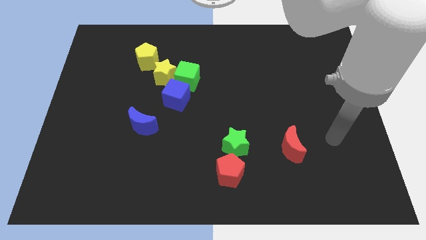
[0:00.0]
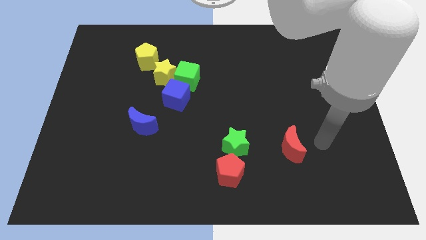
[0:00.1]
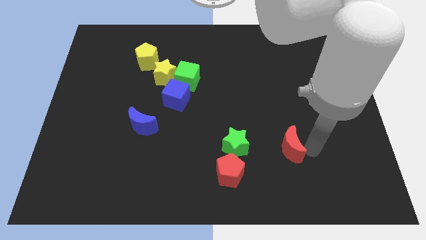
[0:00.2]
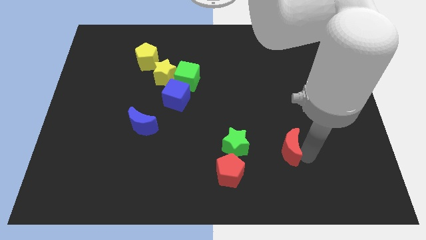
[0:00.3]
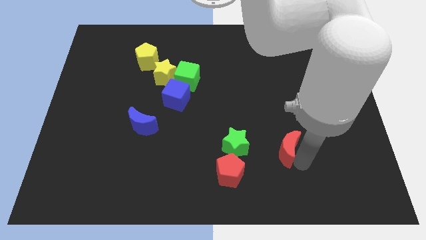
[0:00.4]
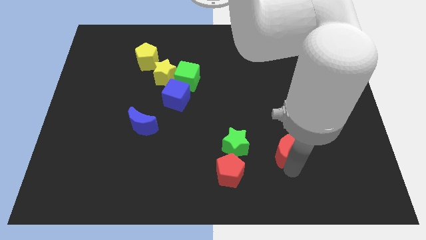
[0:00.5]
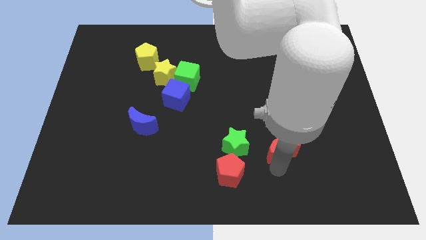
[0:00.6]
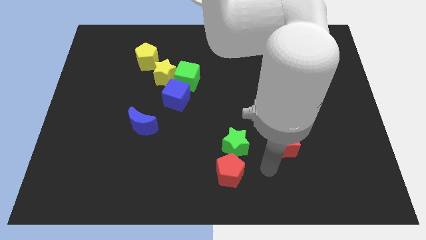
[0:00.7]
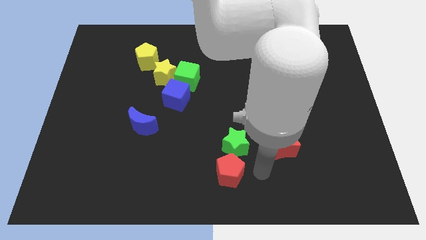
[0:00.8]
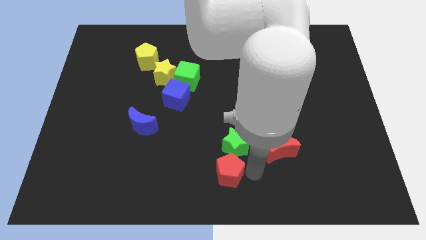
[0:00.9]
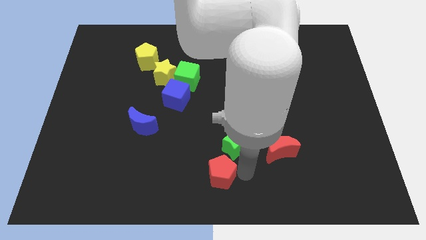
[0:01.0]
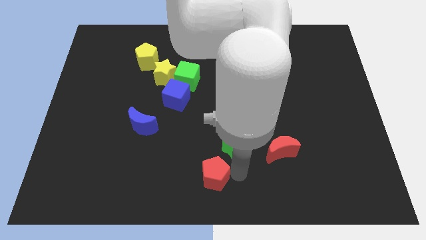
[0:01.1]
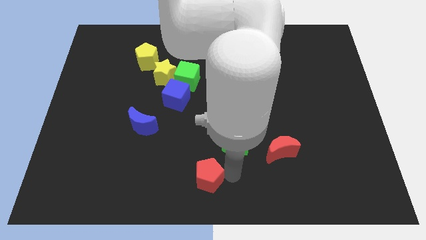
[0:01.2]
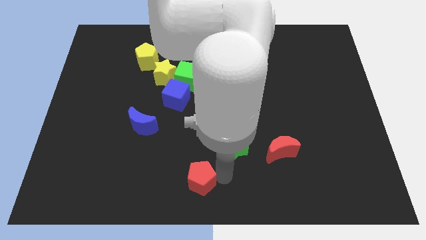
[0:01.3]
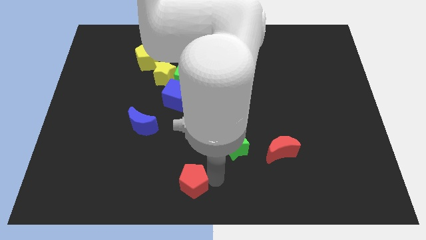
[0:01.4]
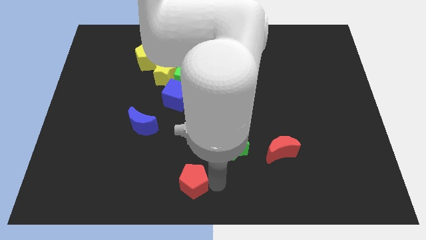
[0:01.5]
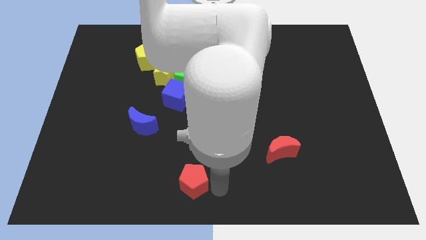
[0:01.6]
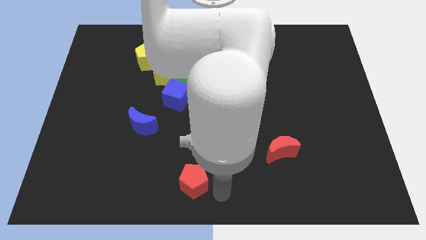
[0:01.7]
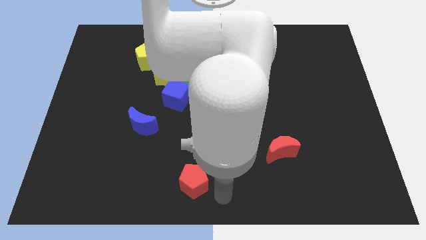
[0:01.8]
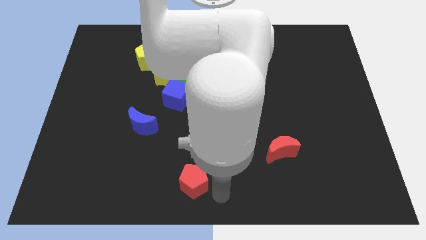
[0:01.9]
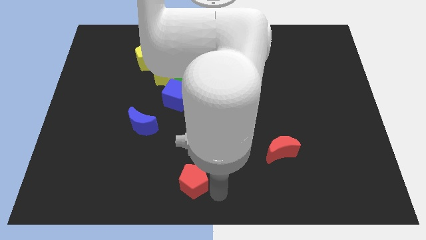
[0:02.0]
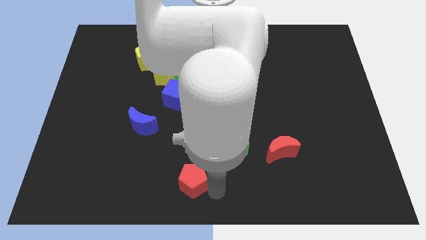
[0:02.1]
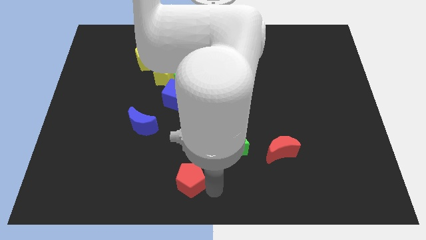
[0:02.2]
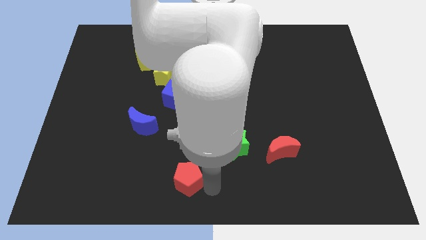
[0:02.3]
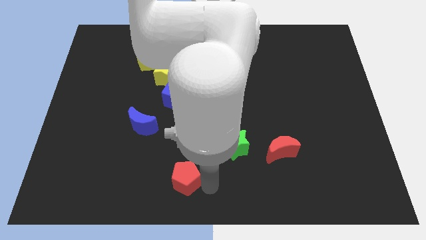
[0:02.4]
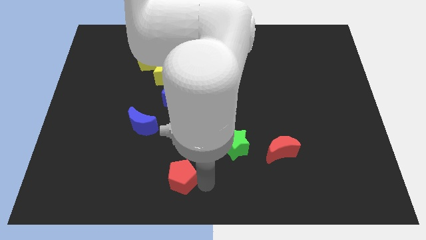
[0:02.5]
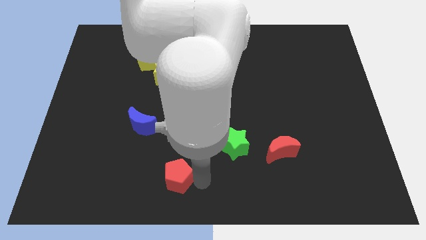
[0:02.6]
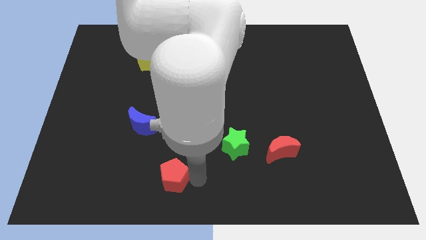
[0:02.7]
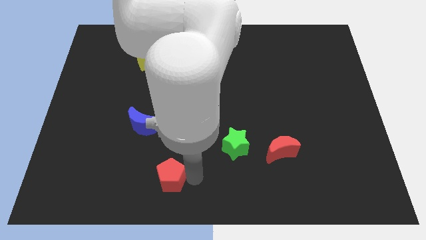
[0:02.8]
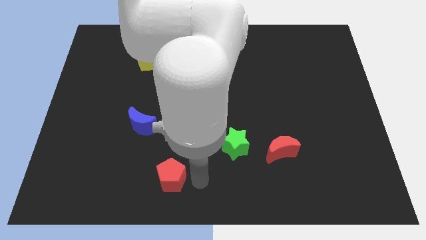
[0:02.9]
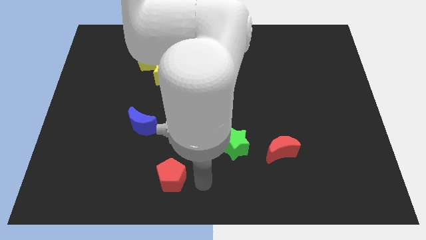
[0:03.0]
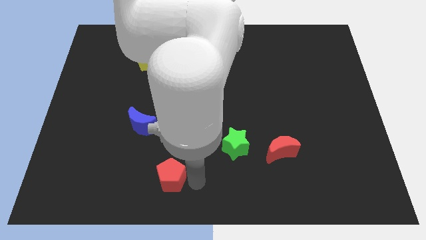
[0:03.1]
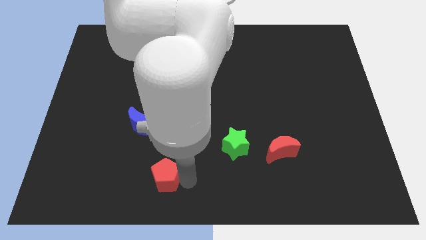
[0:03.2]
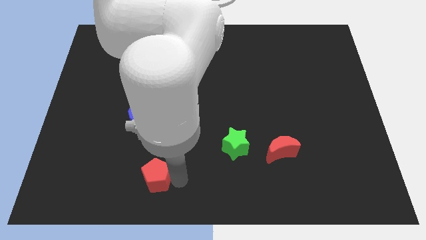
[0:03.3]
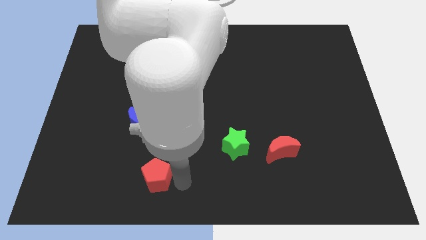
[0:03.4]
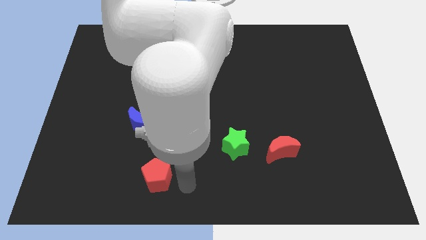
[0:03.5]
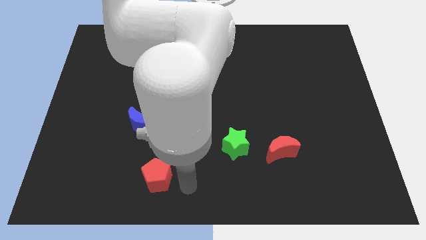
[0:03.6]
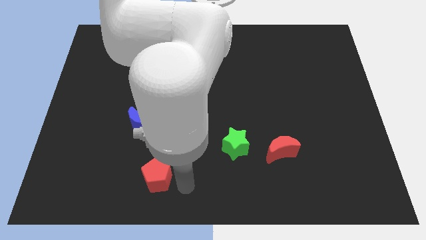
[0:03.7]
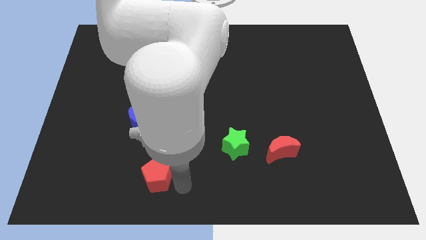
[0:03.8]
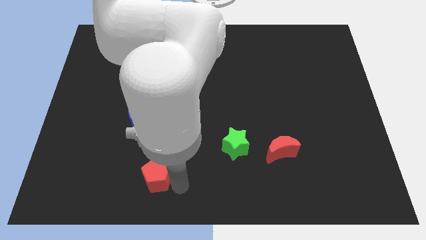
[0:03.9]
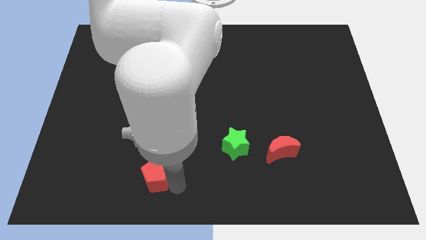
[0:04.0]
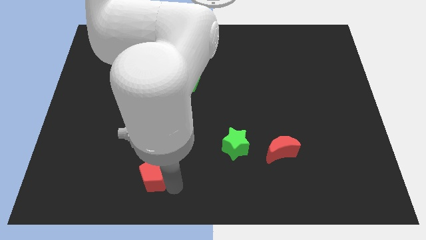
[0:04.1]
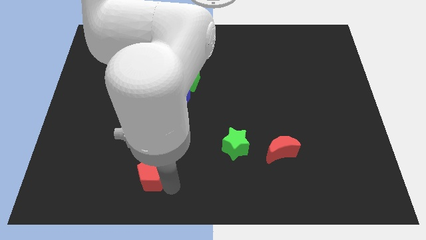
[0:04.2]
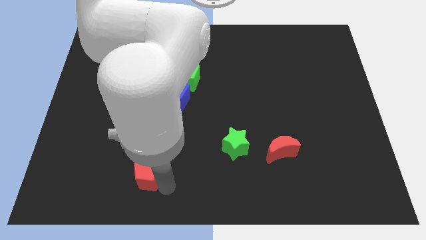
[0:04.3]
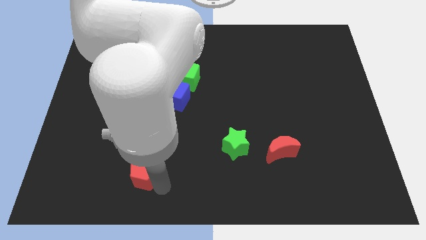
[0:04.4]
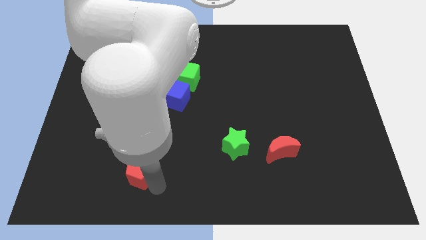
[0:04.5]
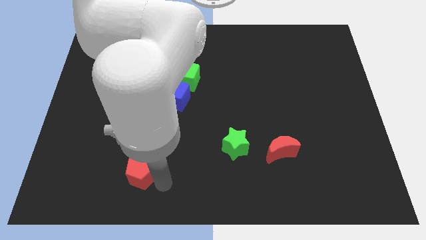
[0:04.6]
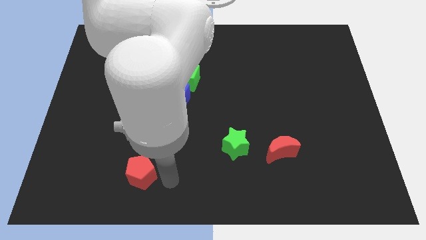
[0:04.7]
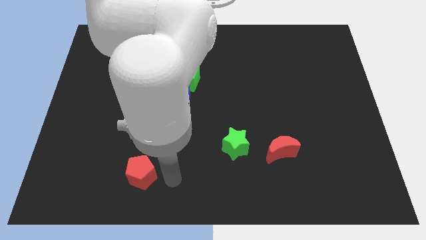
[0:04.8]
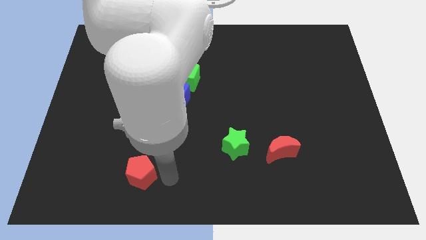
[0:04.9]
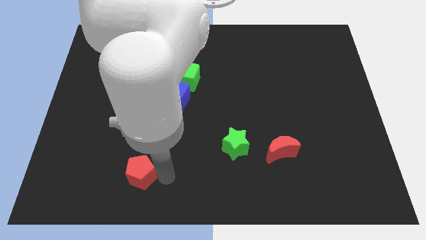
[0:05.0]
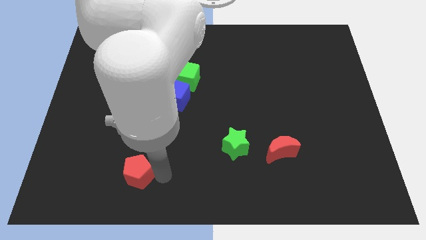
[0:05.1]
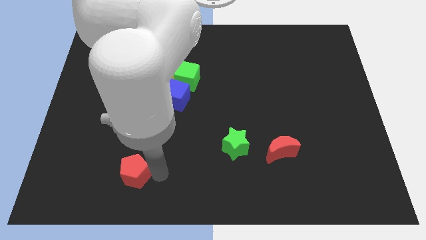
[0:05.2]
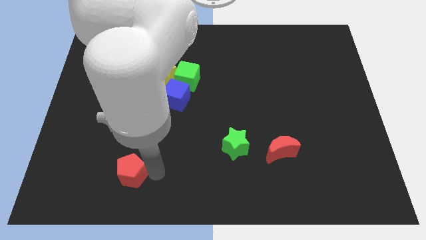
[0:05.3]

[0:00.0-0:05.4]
move the red pentagon to the left

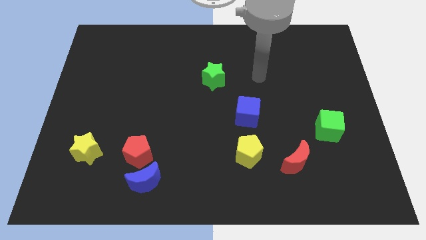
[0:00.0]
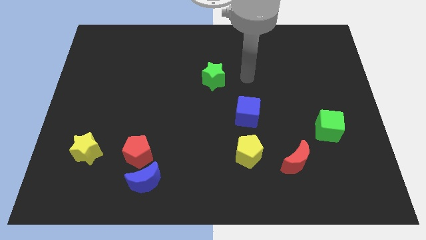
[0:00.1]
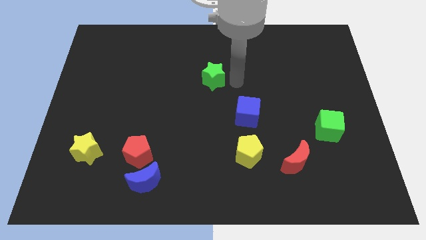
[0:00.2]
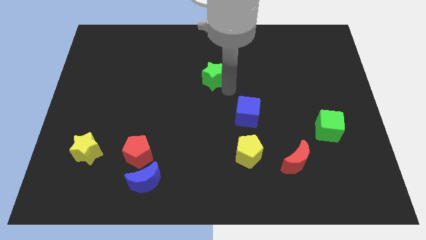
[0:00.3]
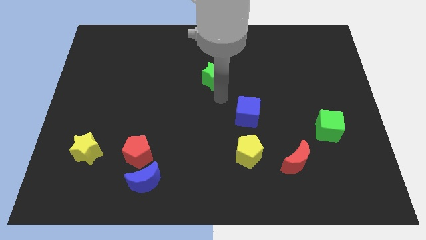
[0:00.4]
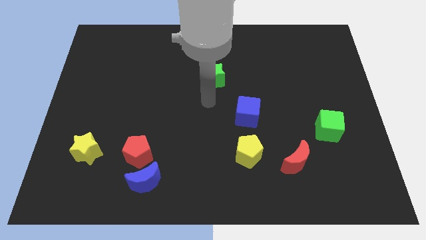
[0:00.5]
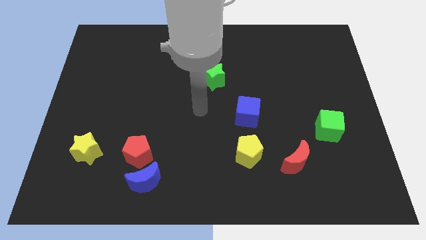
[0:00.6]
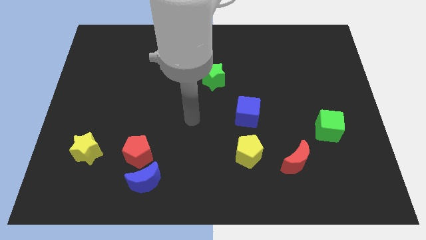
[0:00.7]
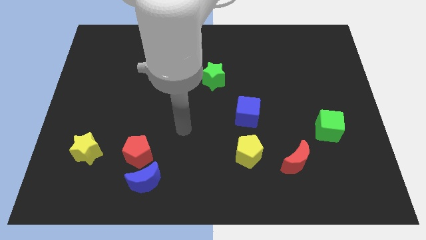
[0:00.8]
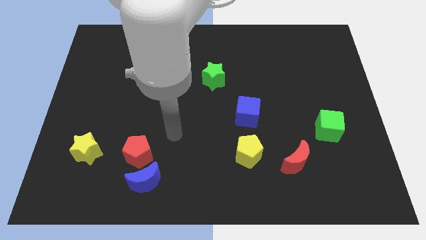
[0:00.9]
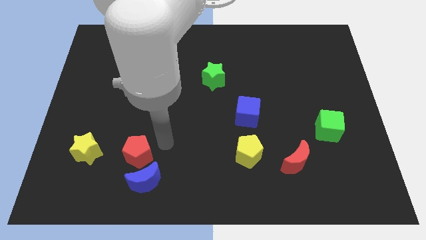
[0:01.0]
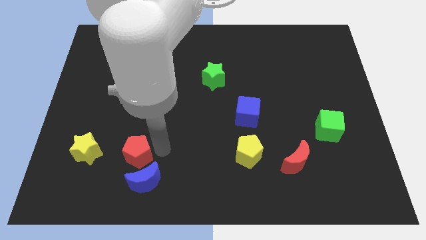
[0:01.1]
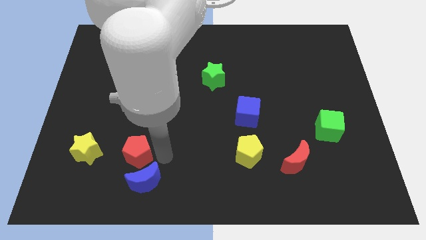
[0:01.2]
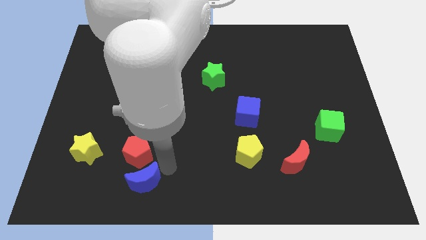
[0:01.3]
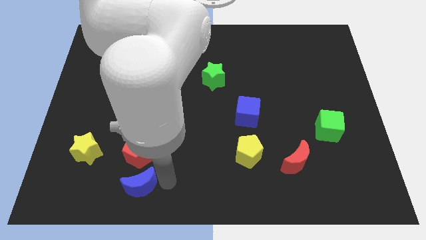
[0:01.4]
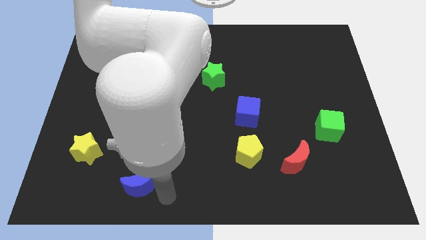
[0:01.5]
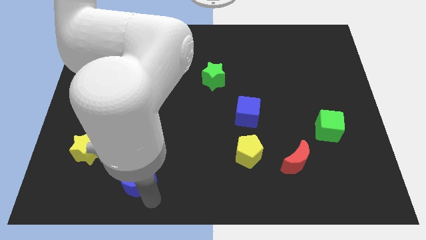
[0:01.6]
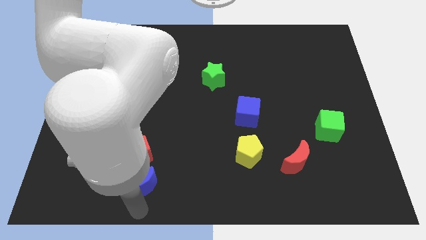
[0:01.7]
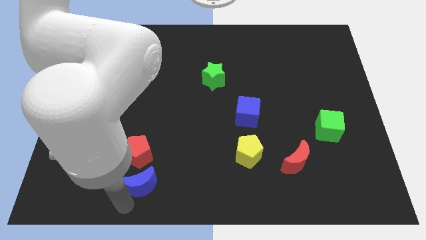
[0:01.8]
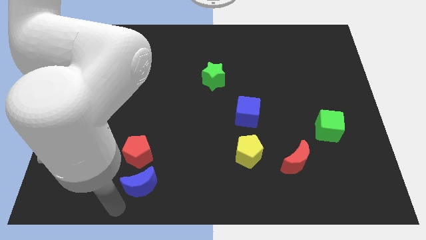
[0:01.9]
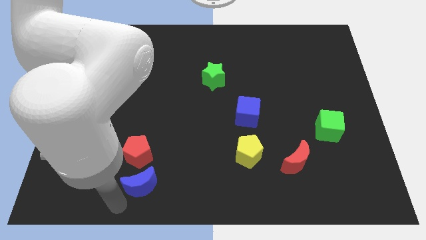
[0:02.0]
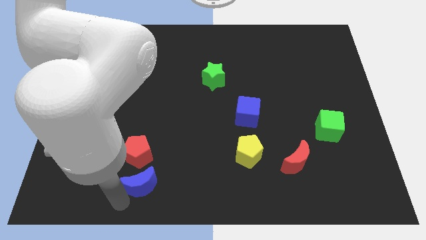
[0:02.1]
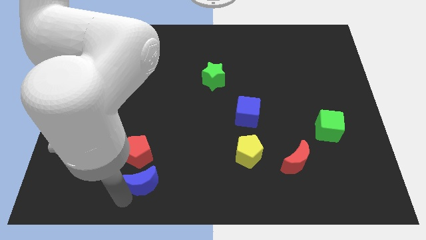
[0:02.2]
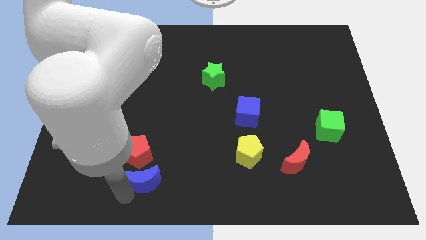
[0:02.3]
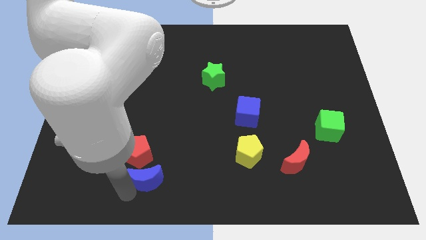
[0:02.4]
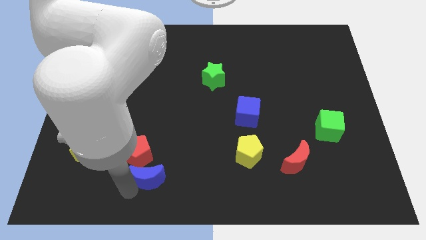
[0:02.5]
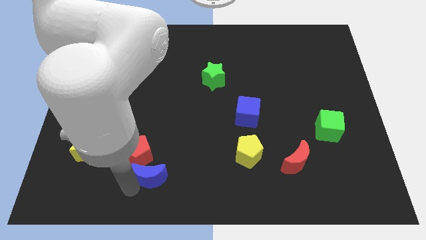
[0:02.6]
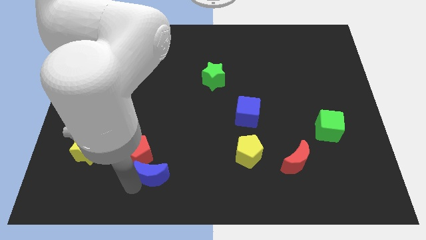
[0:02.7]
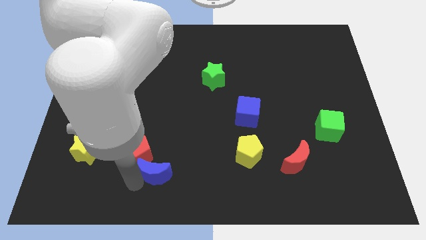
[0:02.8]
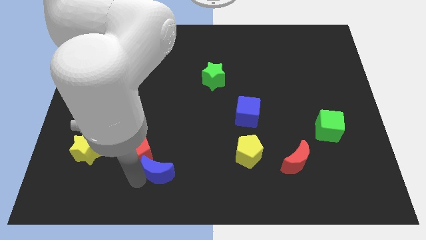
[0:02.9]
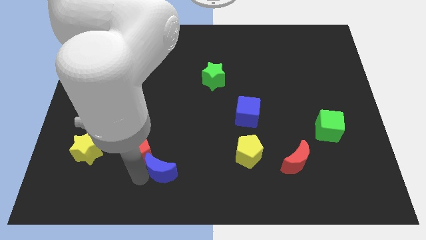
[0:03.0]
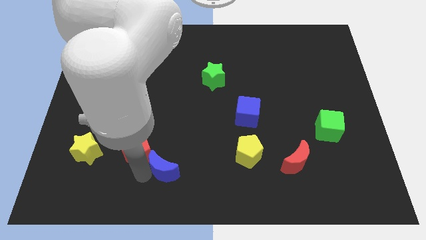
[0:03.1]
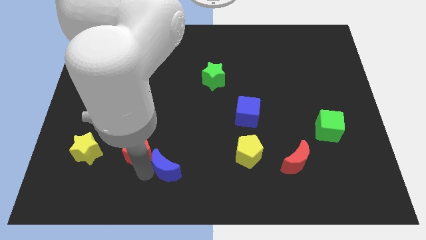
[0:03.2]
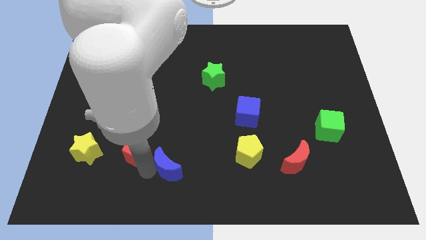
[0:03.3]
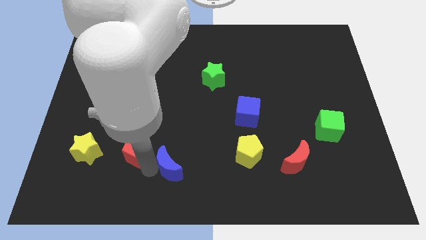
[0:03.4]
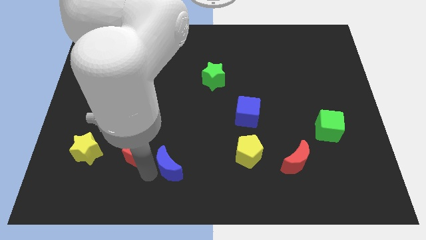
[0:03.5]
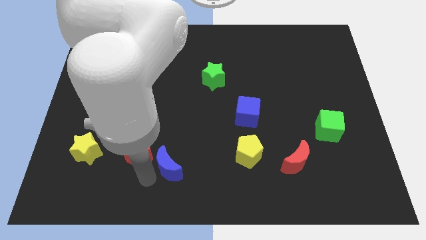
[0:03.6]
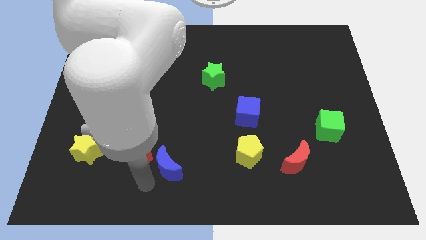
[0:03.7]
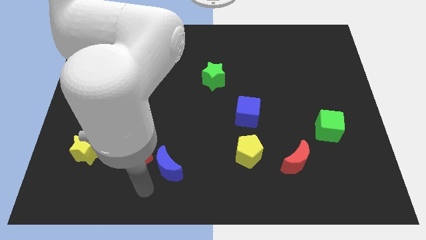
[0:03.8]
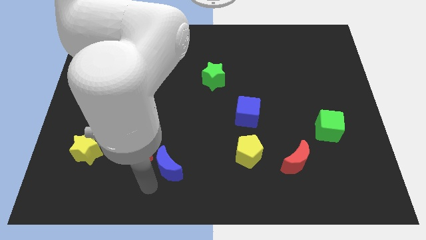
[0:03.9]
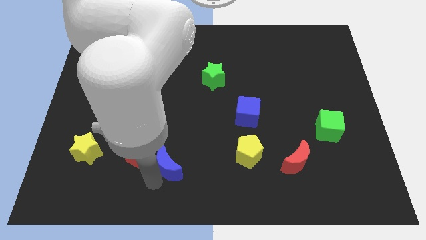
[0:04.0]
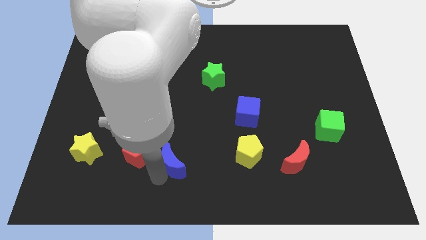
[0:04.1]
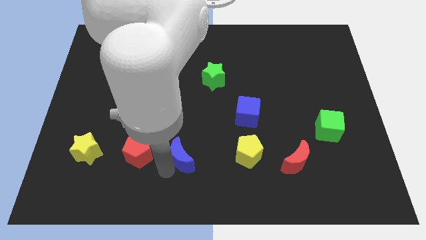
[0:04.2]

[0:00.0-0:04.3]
slide the blue moon upwards and right diagonally slightly
